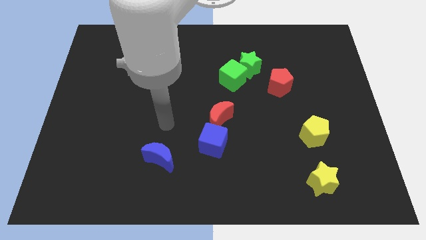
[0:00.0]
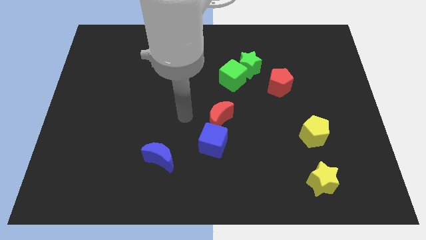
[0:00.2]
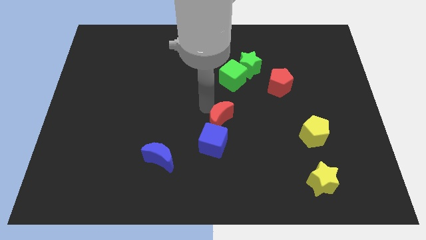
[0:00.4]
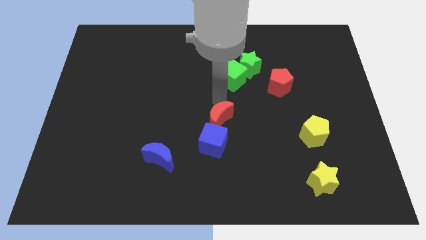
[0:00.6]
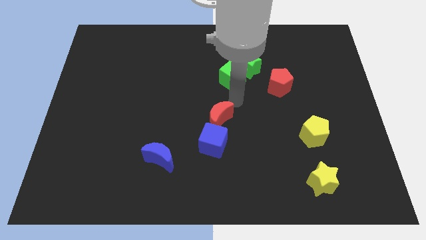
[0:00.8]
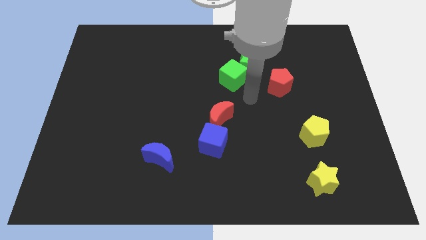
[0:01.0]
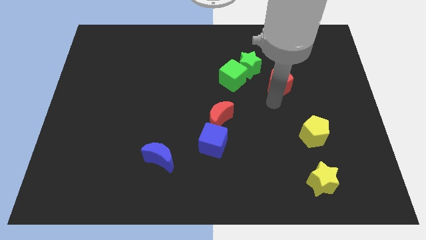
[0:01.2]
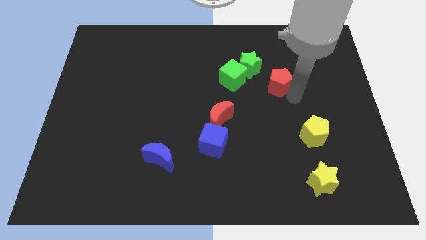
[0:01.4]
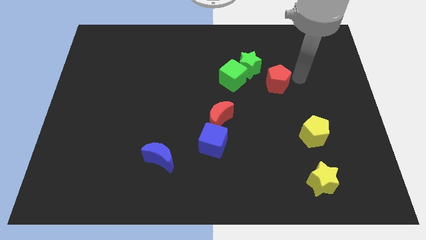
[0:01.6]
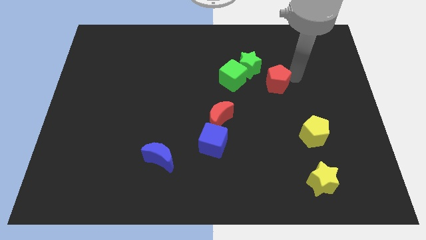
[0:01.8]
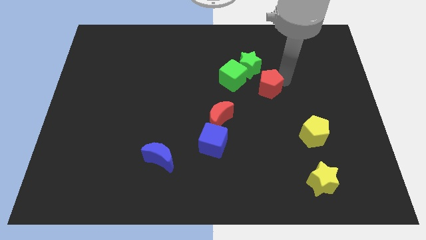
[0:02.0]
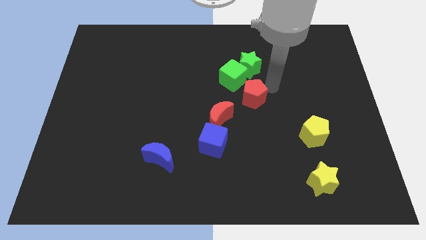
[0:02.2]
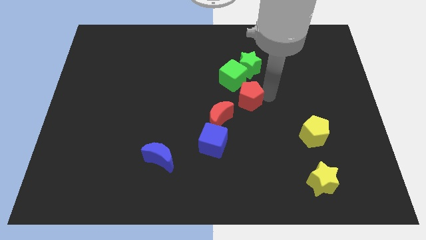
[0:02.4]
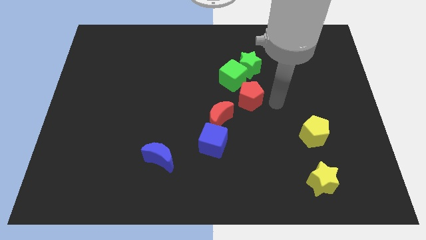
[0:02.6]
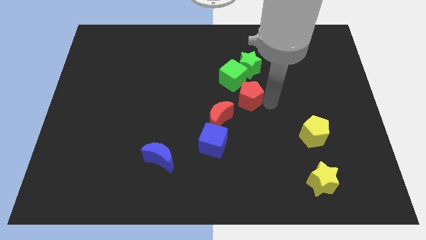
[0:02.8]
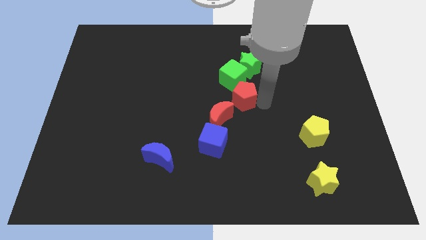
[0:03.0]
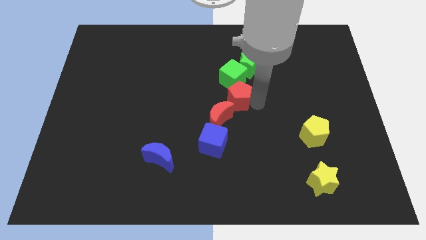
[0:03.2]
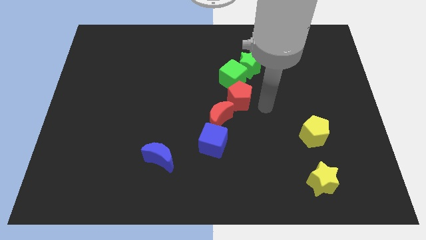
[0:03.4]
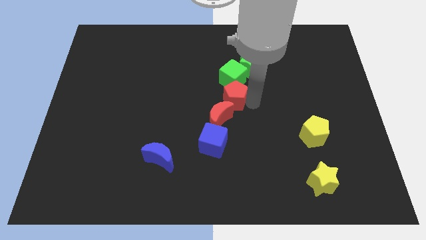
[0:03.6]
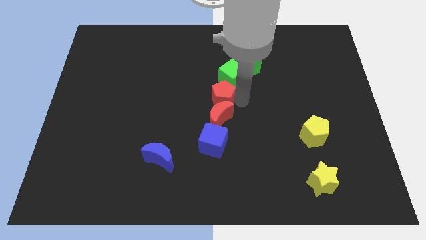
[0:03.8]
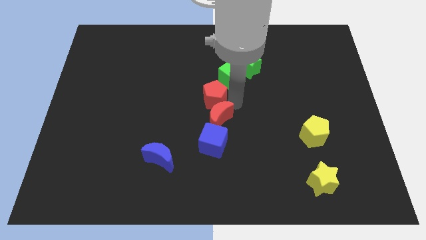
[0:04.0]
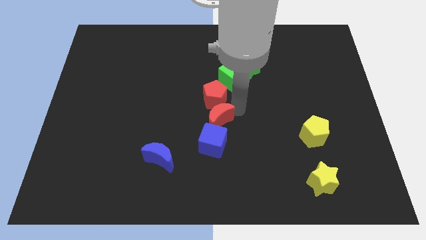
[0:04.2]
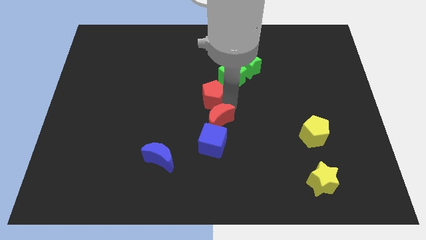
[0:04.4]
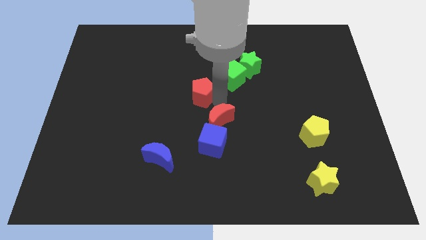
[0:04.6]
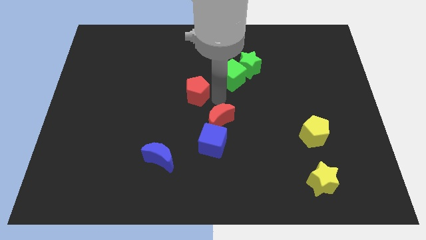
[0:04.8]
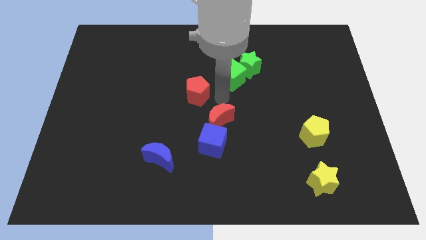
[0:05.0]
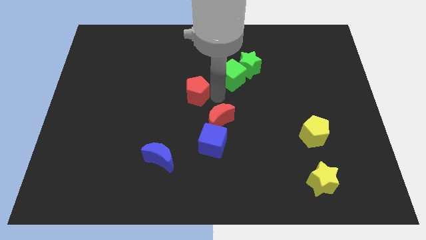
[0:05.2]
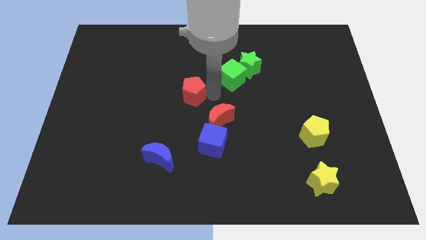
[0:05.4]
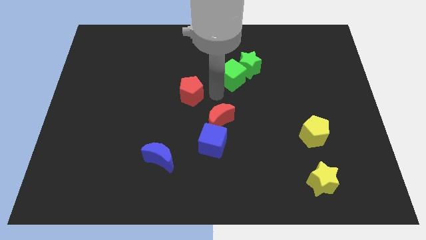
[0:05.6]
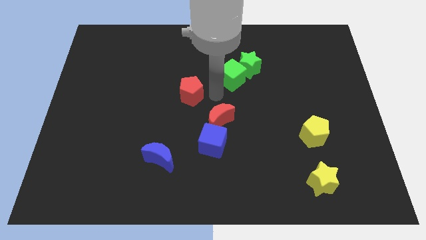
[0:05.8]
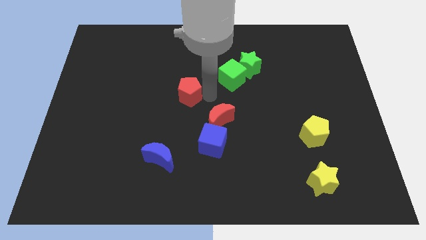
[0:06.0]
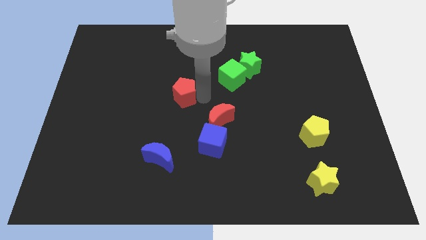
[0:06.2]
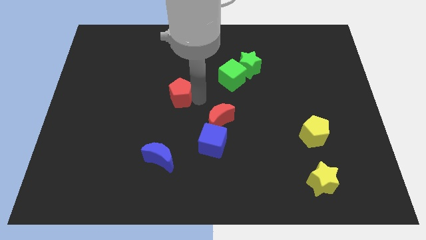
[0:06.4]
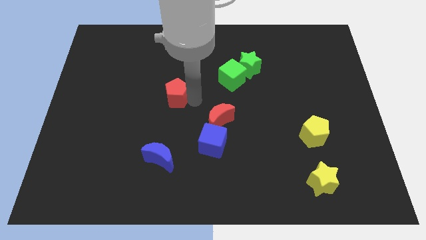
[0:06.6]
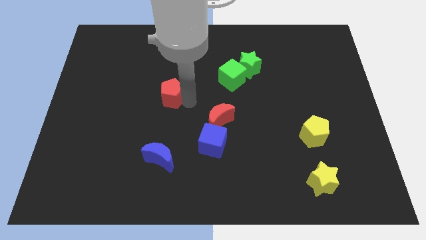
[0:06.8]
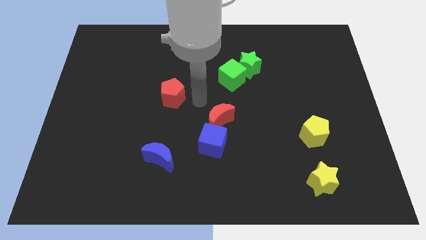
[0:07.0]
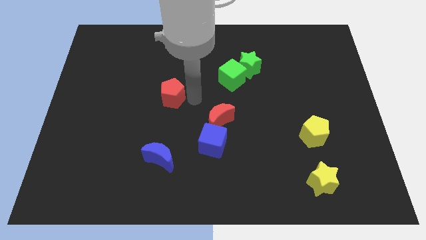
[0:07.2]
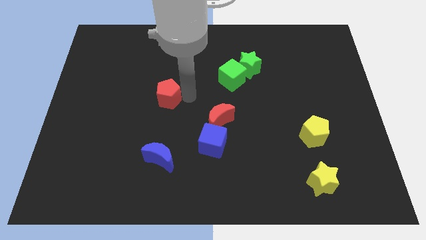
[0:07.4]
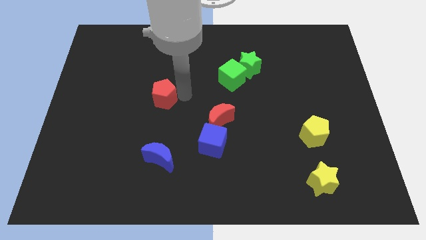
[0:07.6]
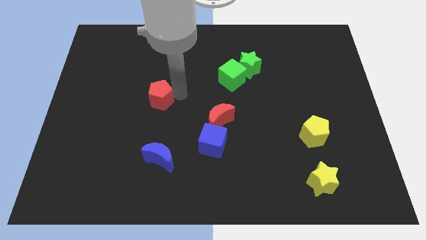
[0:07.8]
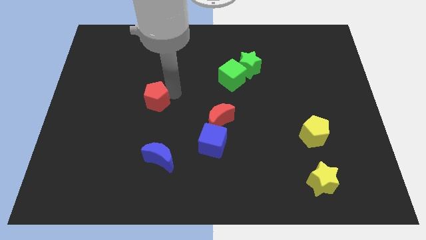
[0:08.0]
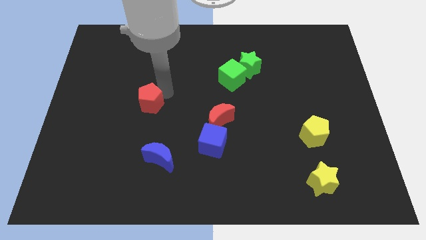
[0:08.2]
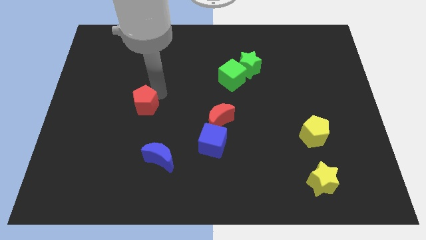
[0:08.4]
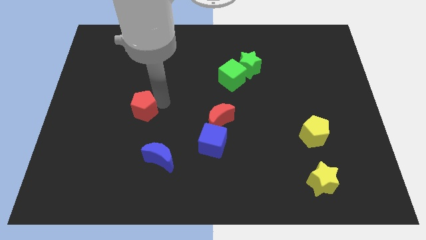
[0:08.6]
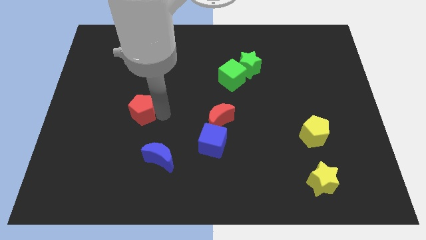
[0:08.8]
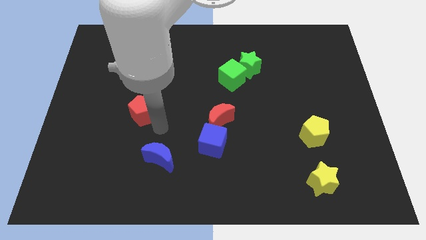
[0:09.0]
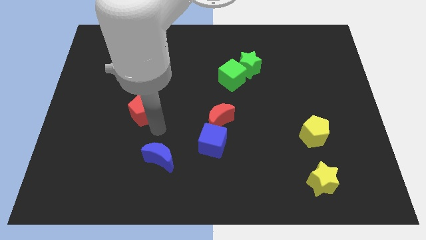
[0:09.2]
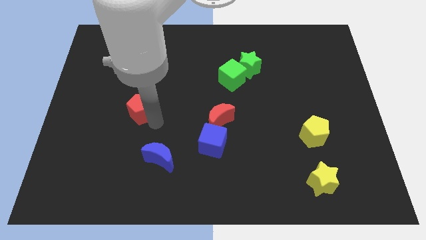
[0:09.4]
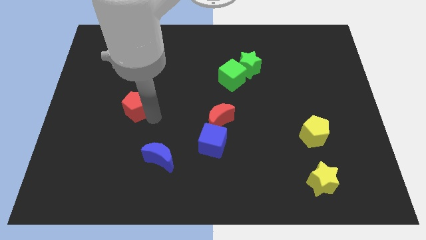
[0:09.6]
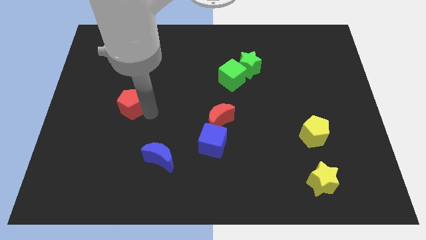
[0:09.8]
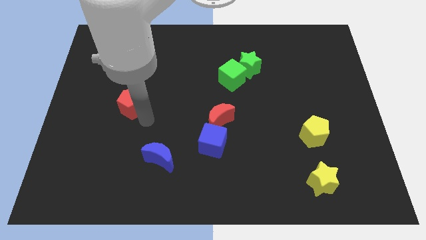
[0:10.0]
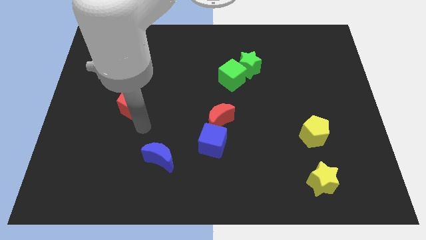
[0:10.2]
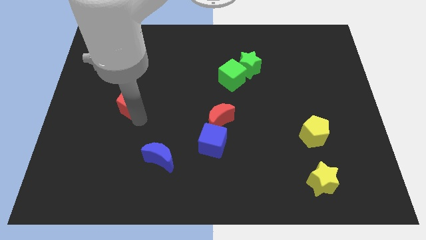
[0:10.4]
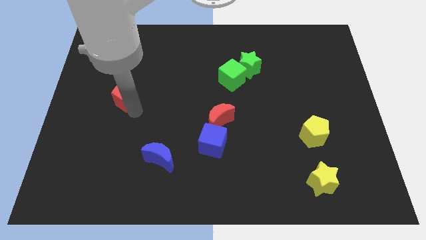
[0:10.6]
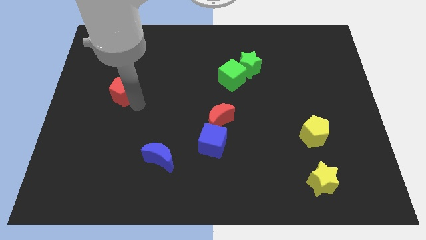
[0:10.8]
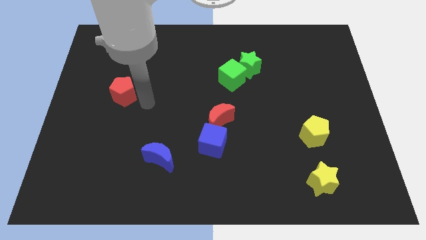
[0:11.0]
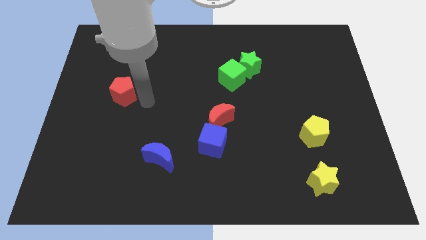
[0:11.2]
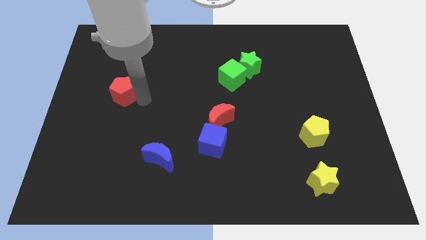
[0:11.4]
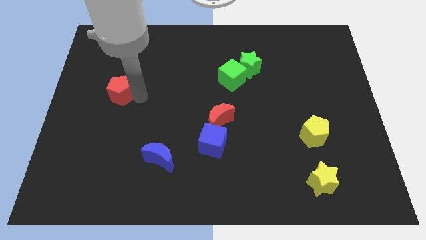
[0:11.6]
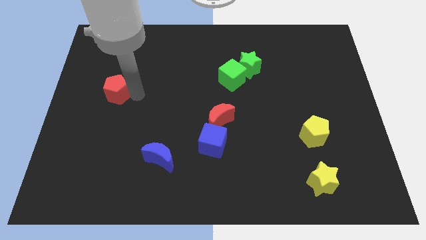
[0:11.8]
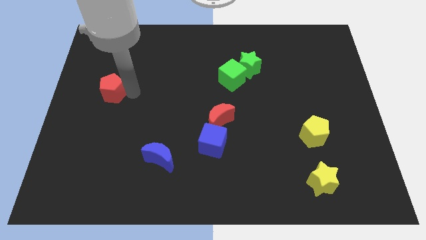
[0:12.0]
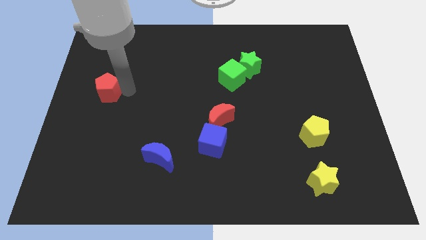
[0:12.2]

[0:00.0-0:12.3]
move the red pentagon to the center left

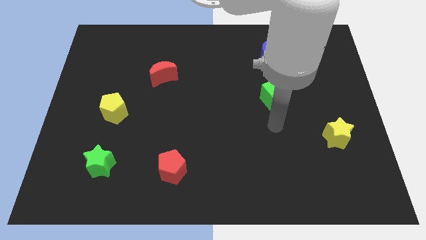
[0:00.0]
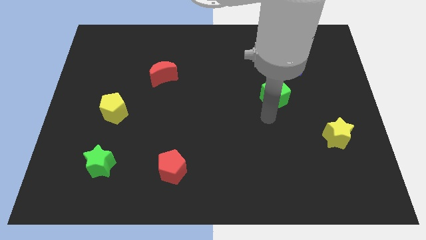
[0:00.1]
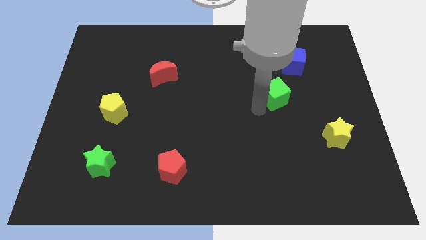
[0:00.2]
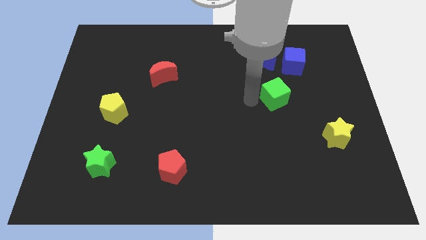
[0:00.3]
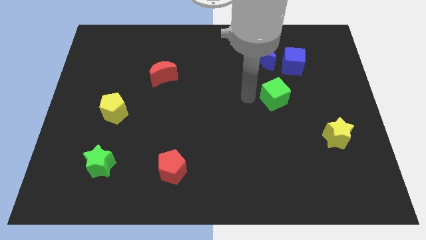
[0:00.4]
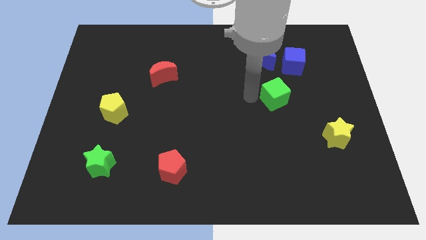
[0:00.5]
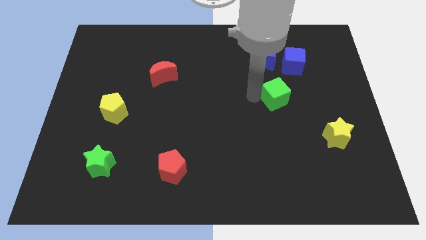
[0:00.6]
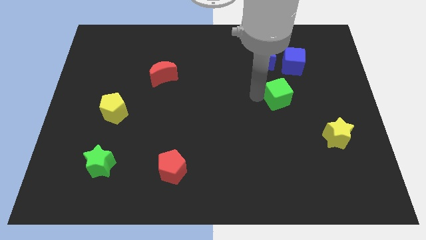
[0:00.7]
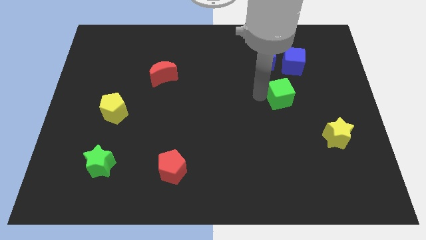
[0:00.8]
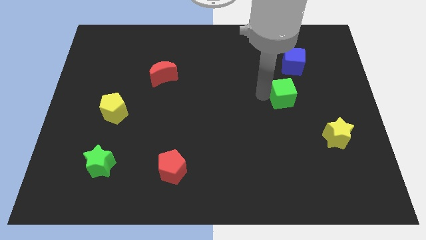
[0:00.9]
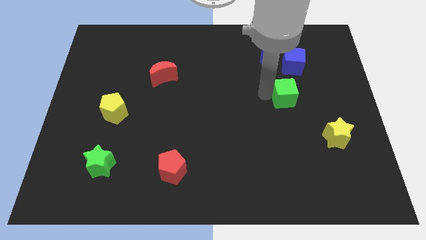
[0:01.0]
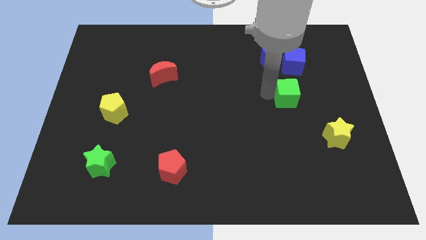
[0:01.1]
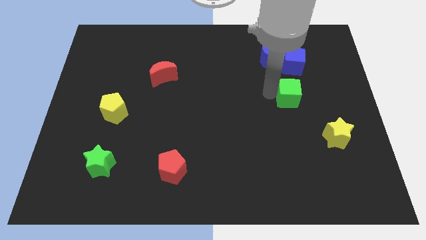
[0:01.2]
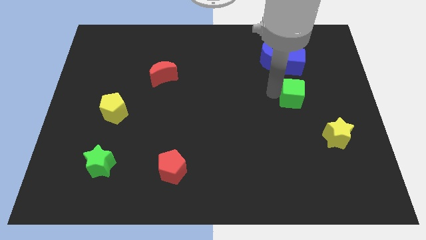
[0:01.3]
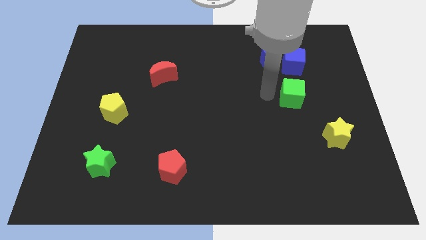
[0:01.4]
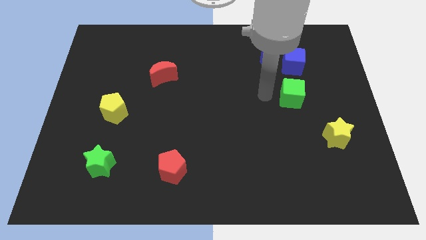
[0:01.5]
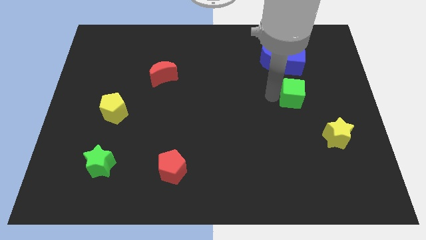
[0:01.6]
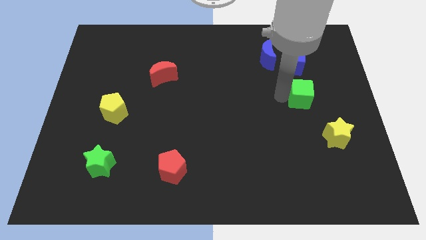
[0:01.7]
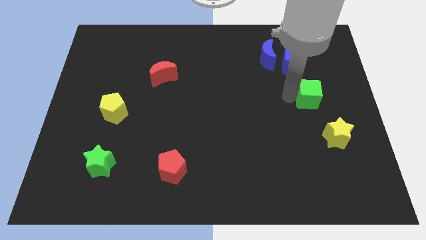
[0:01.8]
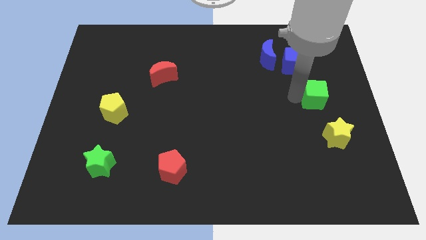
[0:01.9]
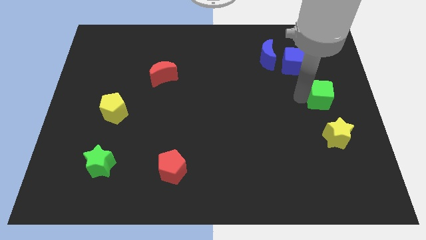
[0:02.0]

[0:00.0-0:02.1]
move the green cube to the right side
